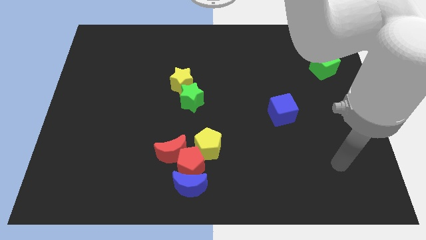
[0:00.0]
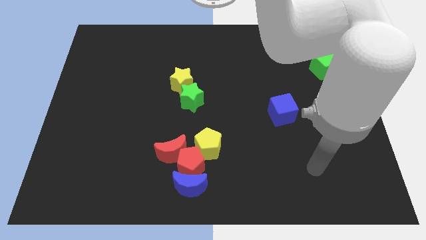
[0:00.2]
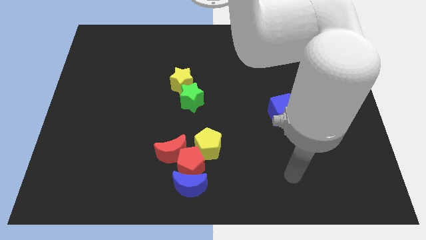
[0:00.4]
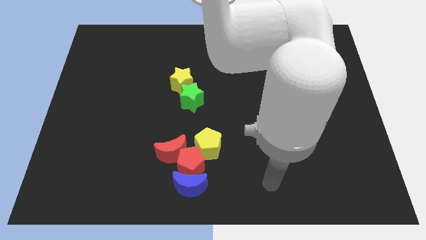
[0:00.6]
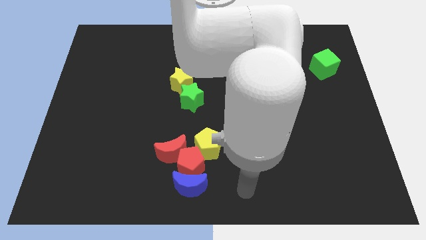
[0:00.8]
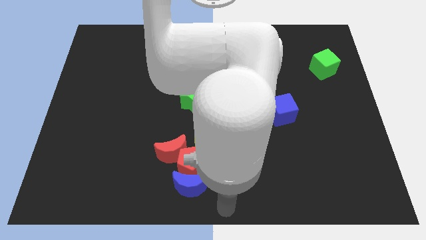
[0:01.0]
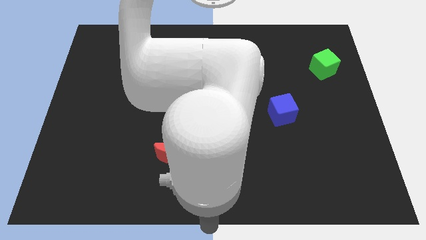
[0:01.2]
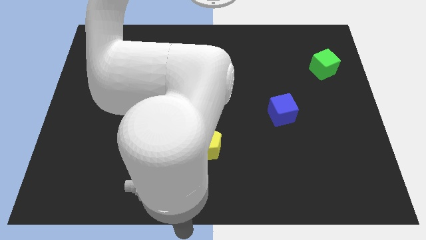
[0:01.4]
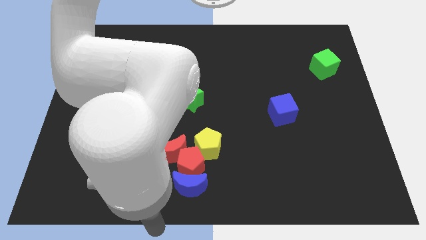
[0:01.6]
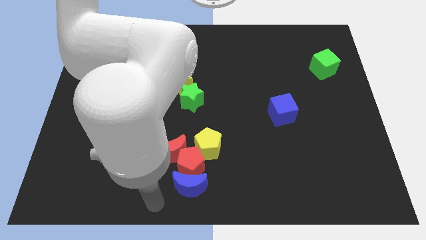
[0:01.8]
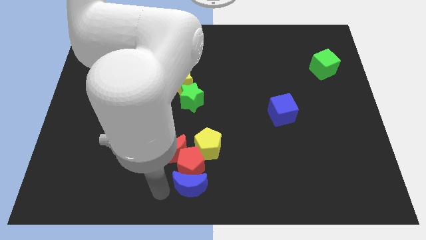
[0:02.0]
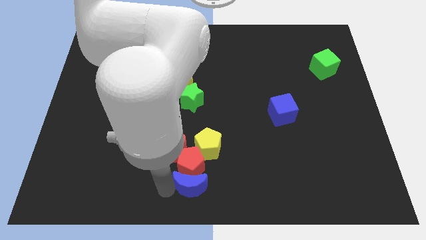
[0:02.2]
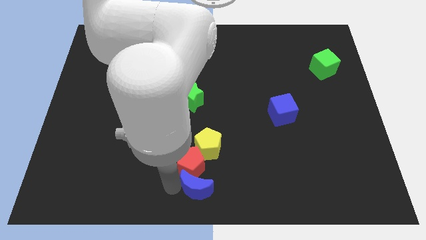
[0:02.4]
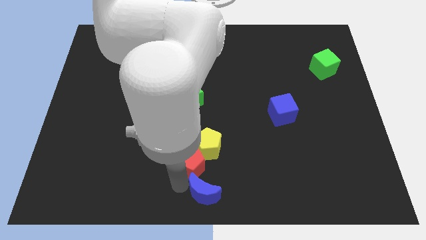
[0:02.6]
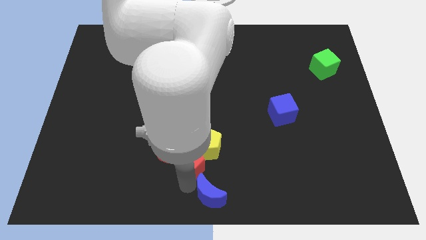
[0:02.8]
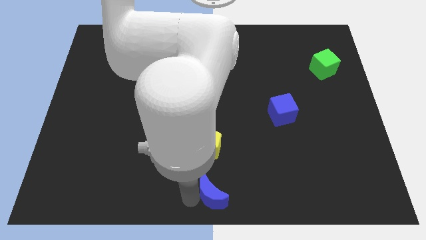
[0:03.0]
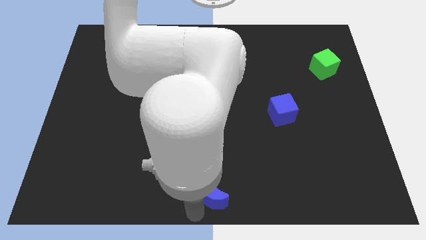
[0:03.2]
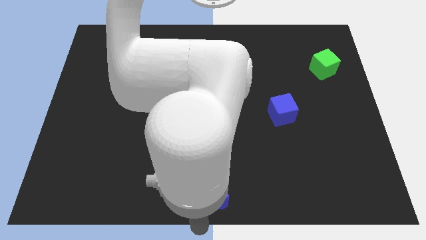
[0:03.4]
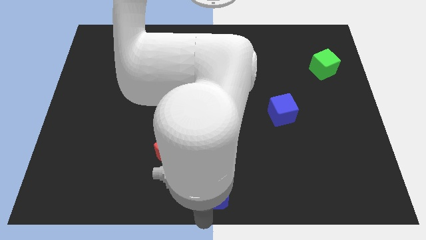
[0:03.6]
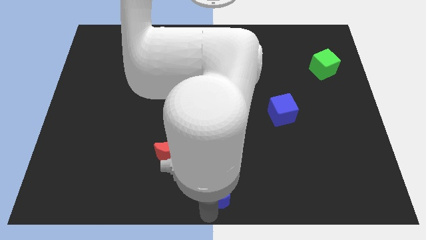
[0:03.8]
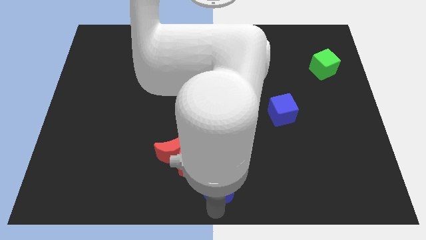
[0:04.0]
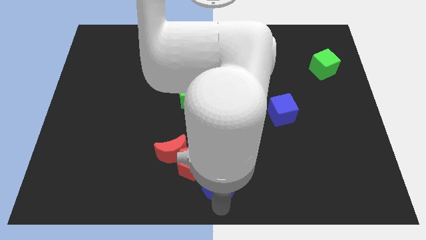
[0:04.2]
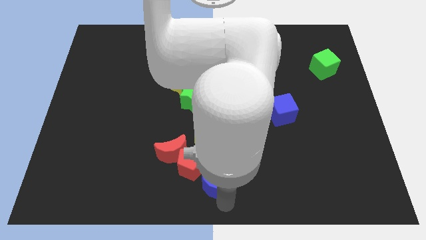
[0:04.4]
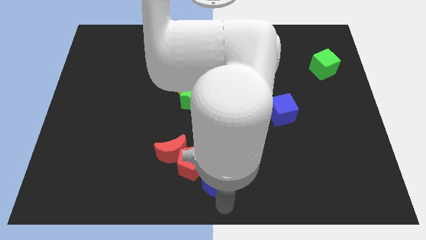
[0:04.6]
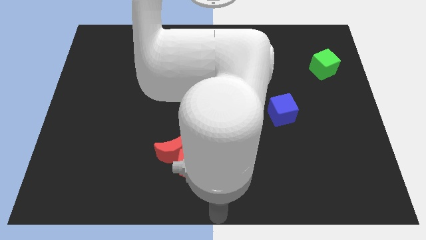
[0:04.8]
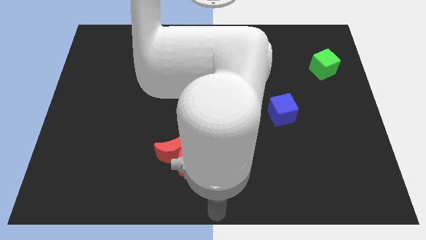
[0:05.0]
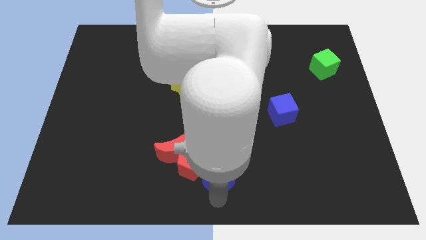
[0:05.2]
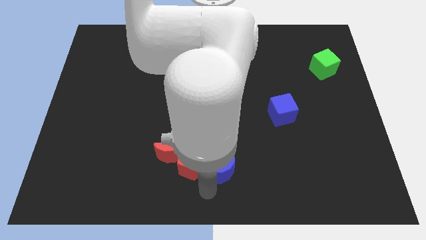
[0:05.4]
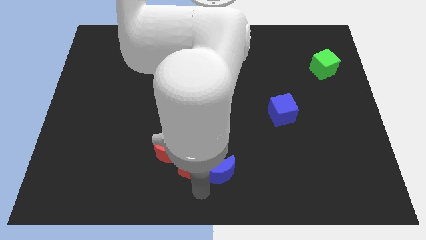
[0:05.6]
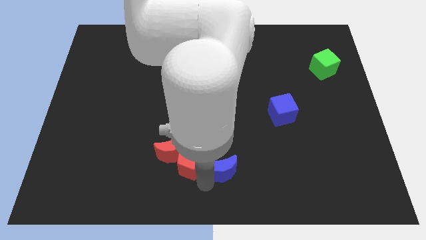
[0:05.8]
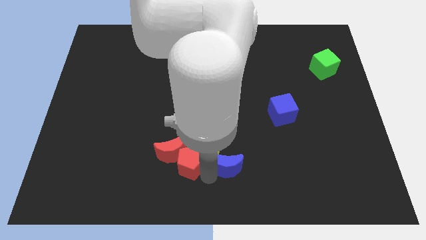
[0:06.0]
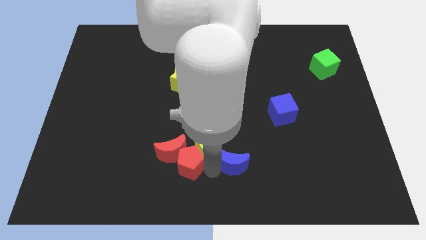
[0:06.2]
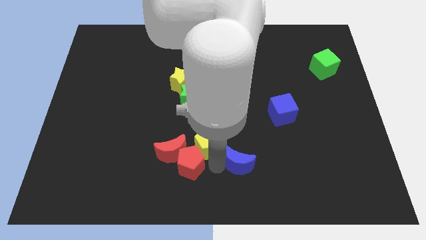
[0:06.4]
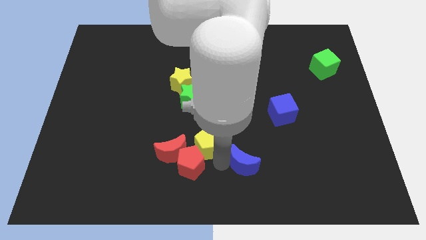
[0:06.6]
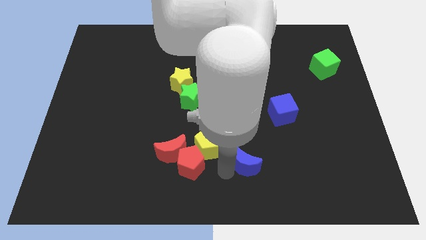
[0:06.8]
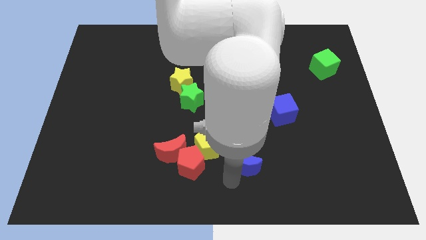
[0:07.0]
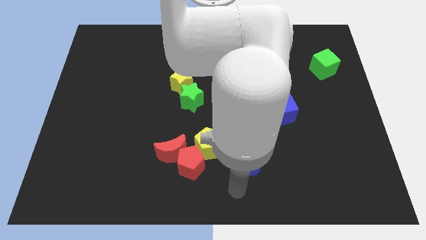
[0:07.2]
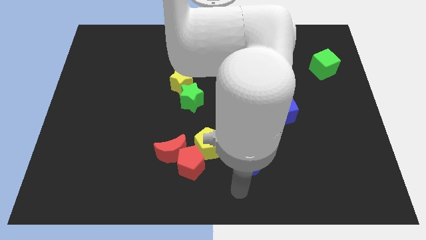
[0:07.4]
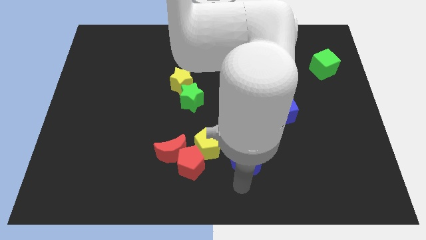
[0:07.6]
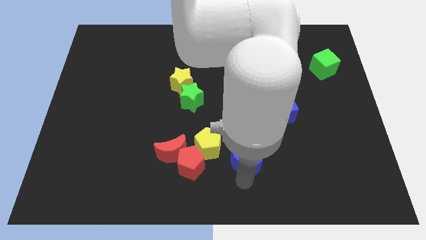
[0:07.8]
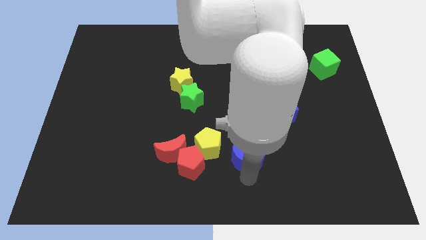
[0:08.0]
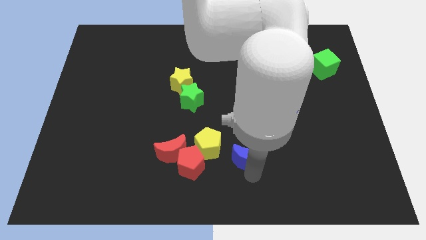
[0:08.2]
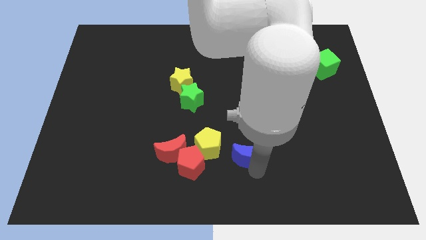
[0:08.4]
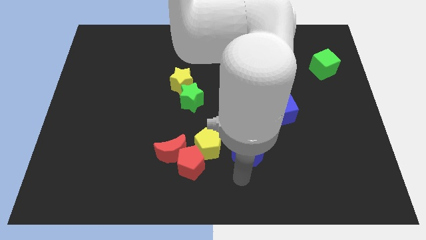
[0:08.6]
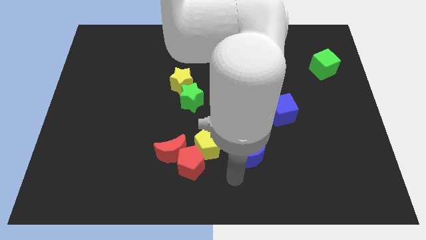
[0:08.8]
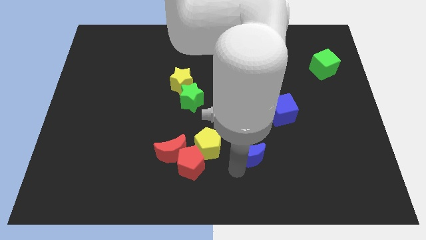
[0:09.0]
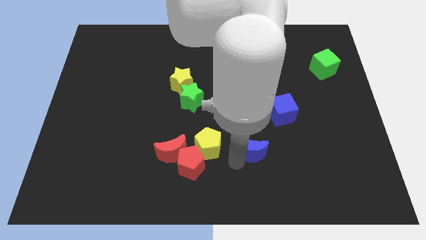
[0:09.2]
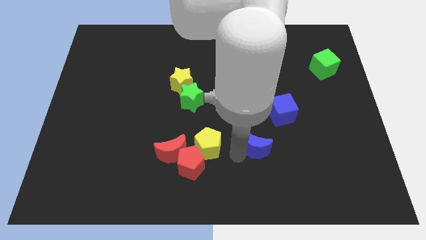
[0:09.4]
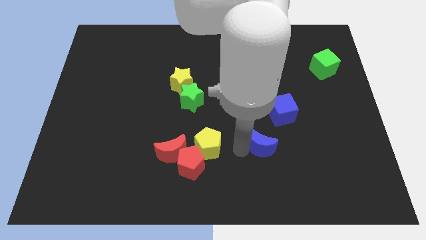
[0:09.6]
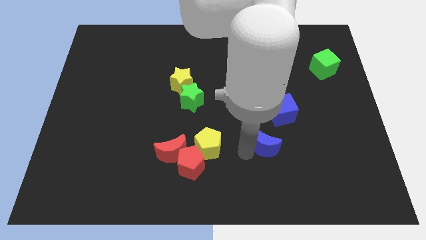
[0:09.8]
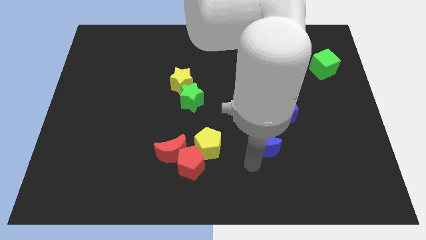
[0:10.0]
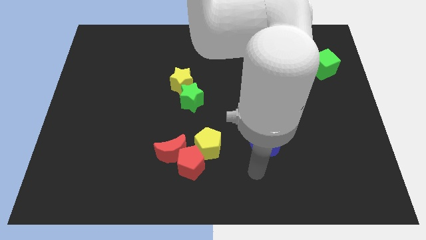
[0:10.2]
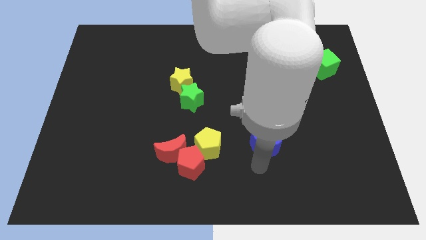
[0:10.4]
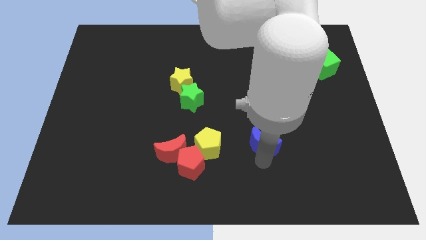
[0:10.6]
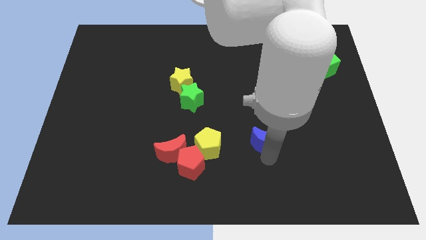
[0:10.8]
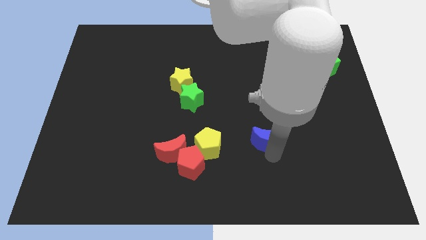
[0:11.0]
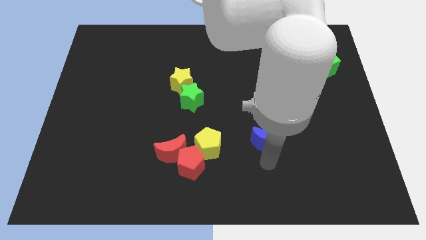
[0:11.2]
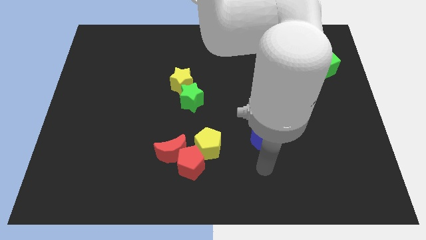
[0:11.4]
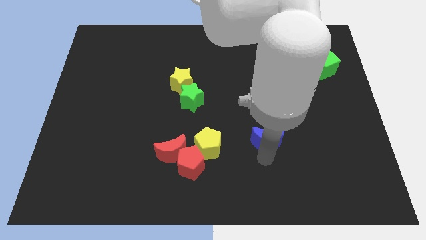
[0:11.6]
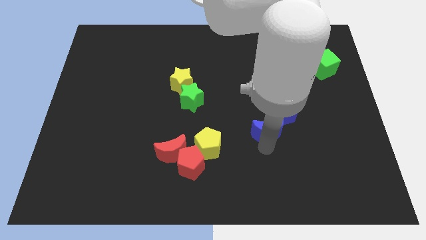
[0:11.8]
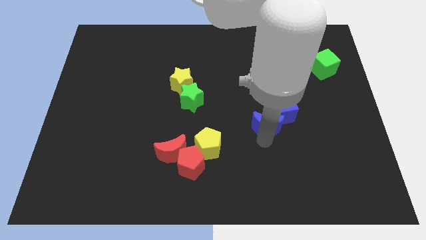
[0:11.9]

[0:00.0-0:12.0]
move the blue moon next to the blue cube
